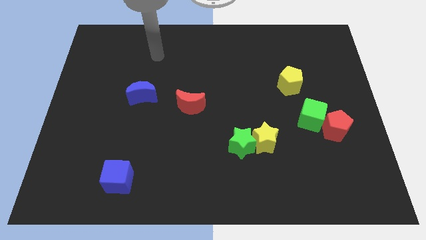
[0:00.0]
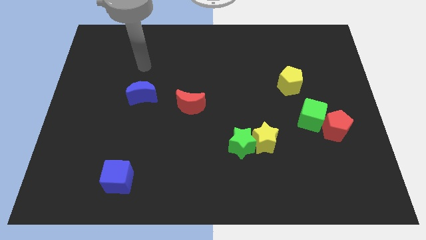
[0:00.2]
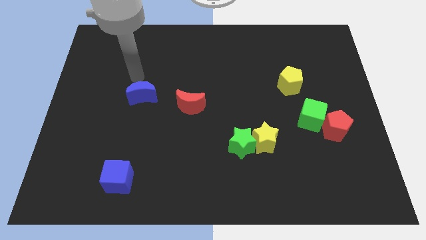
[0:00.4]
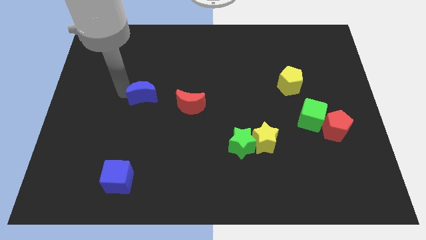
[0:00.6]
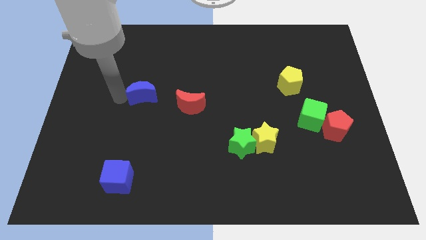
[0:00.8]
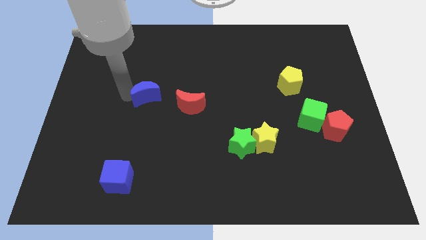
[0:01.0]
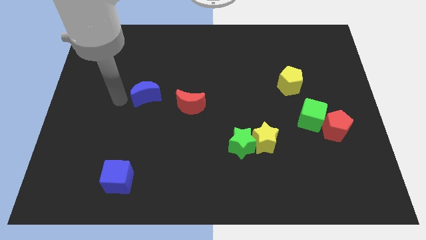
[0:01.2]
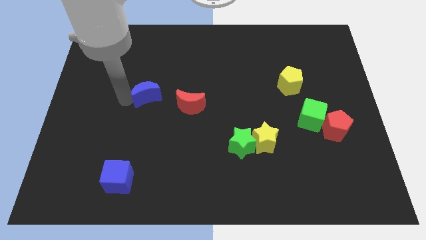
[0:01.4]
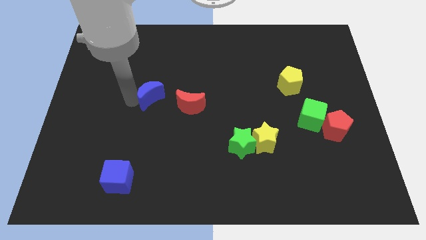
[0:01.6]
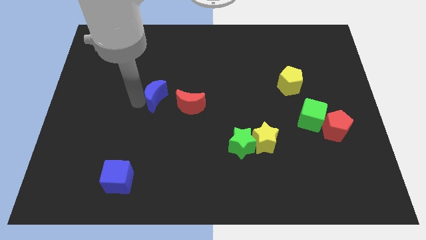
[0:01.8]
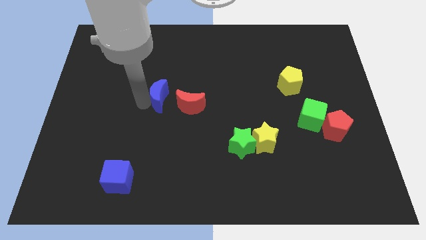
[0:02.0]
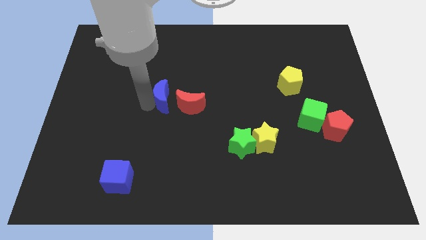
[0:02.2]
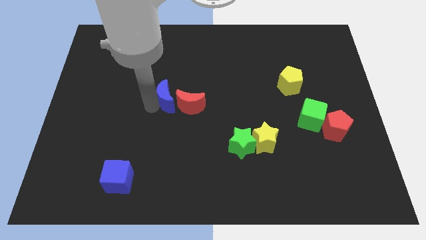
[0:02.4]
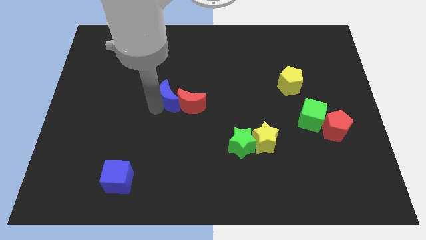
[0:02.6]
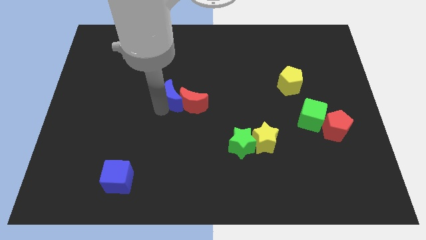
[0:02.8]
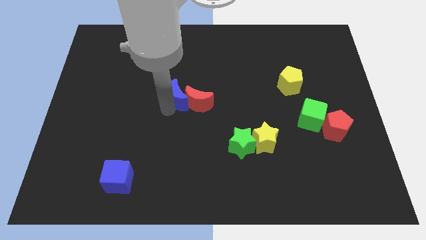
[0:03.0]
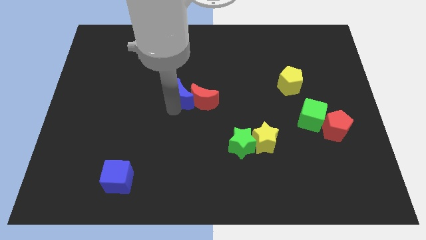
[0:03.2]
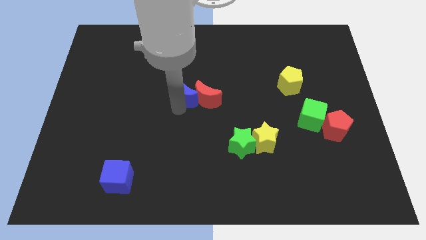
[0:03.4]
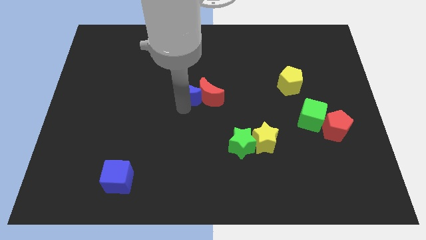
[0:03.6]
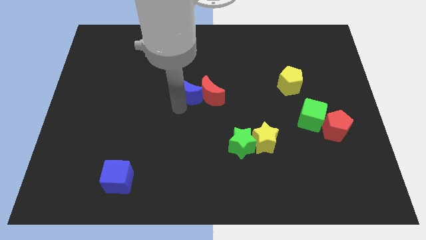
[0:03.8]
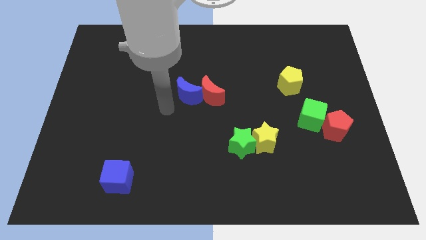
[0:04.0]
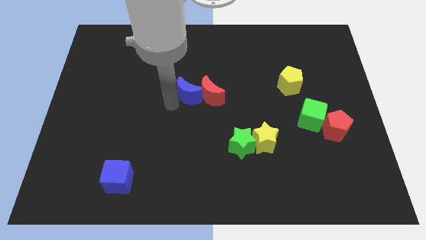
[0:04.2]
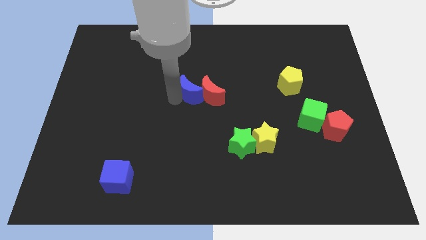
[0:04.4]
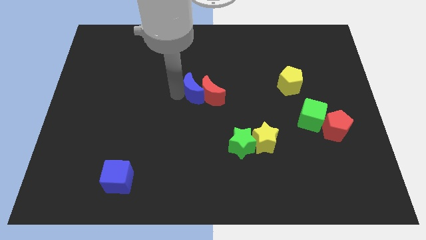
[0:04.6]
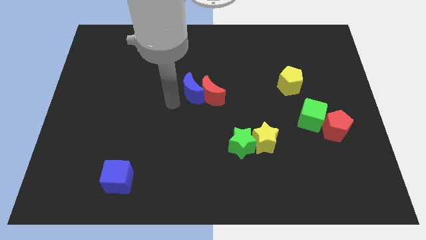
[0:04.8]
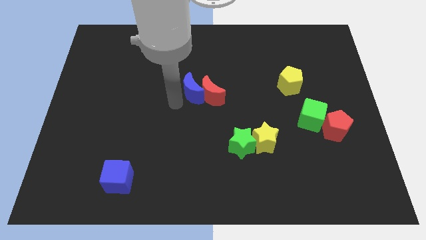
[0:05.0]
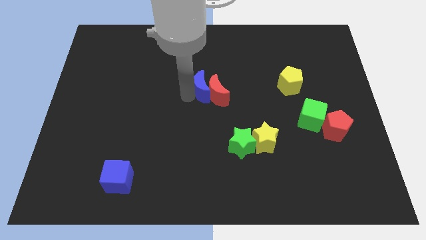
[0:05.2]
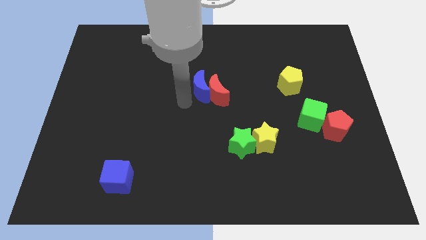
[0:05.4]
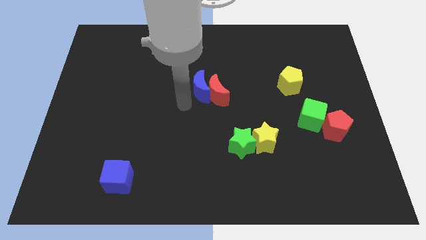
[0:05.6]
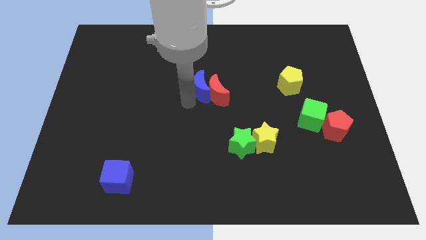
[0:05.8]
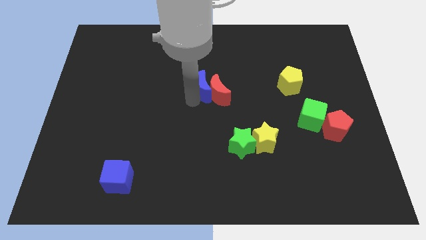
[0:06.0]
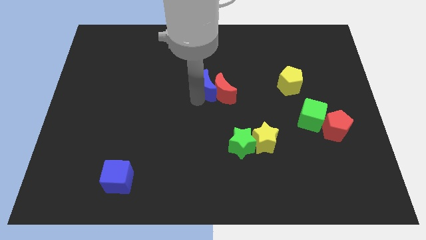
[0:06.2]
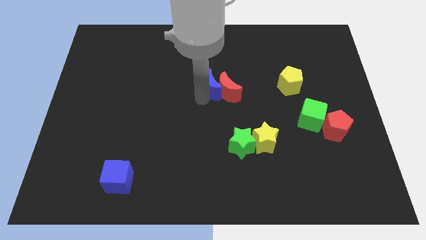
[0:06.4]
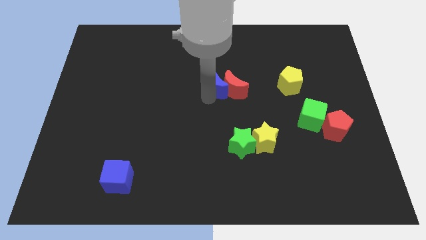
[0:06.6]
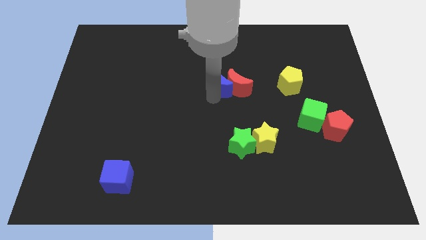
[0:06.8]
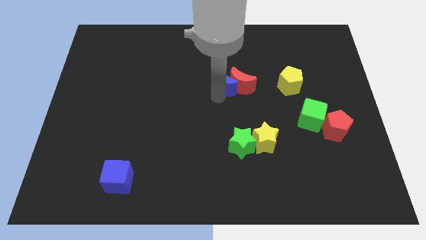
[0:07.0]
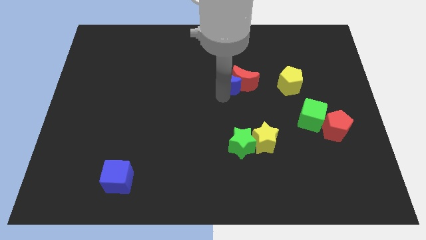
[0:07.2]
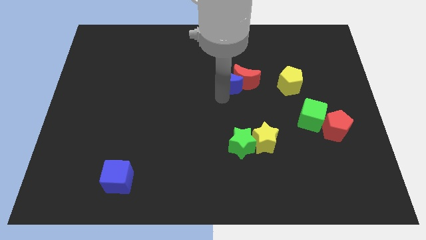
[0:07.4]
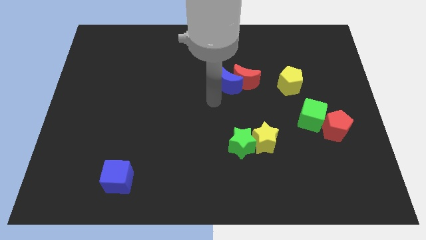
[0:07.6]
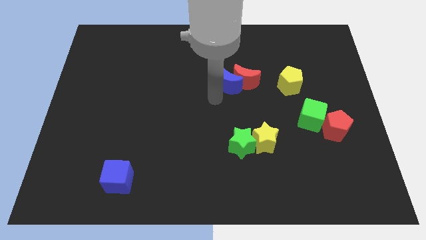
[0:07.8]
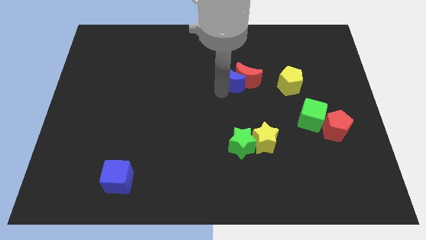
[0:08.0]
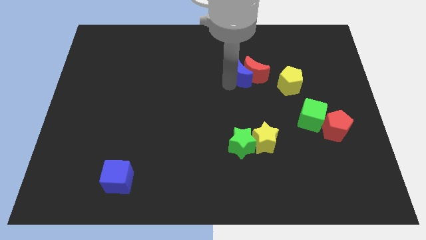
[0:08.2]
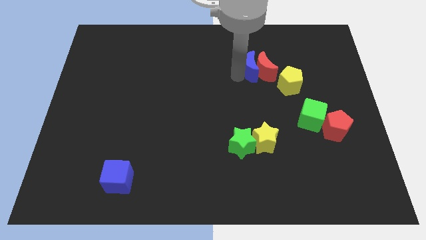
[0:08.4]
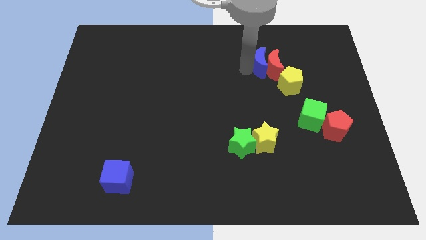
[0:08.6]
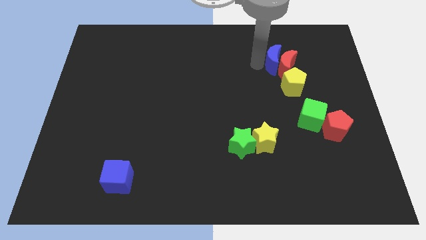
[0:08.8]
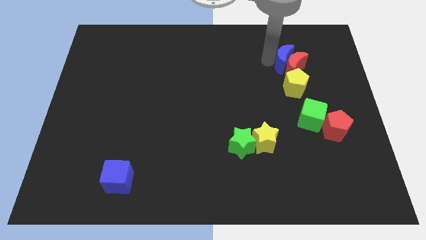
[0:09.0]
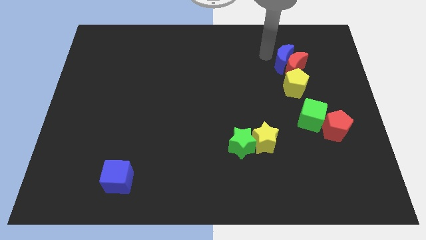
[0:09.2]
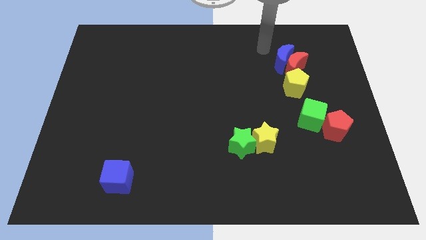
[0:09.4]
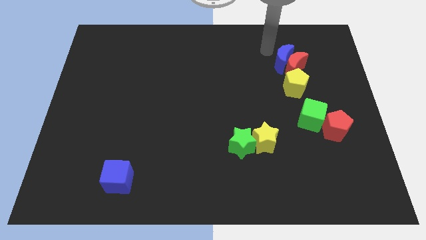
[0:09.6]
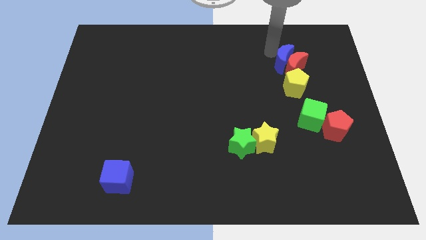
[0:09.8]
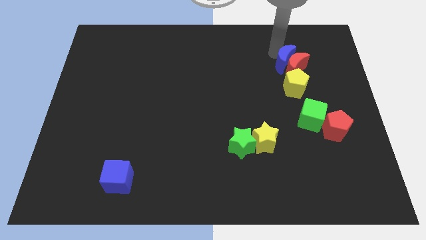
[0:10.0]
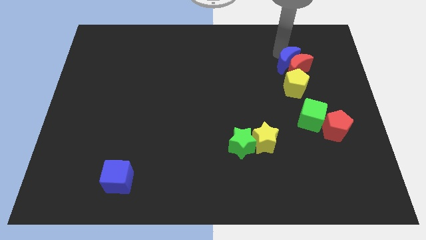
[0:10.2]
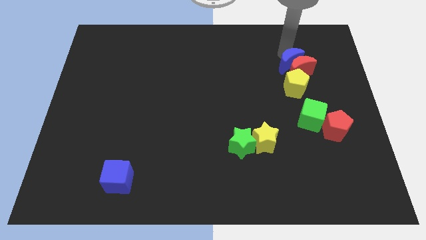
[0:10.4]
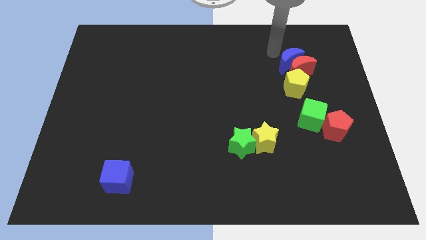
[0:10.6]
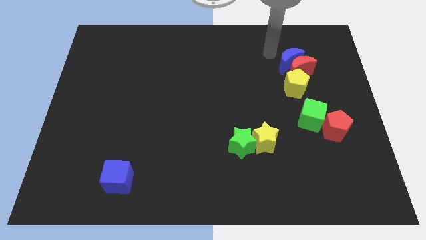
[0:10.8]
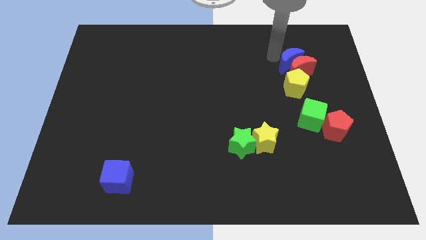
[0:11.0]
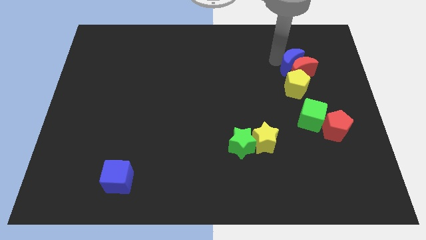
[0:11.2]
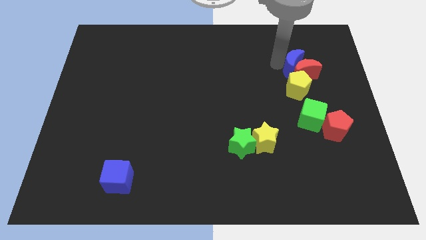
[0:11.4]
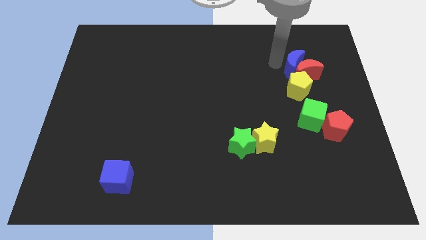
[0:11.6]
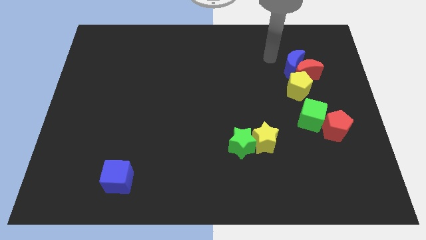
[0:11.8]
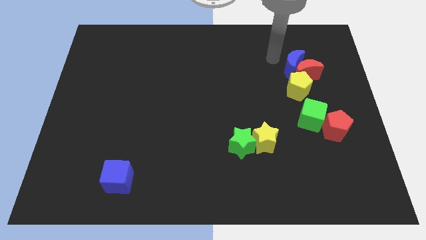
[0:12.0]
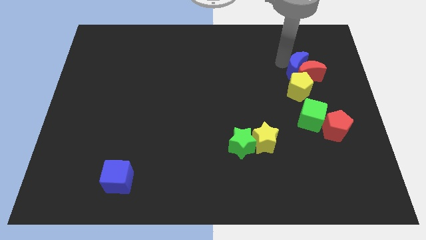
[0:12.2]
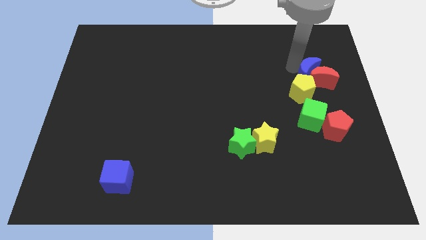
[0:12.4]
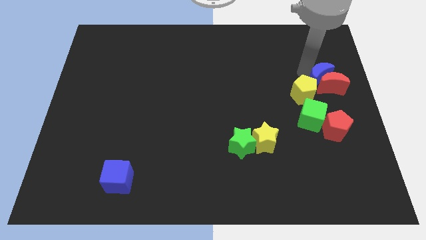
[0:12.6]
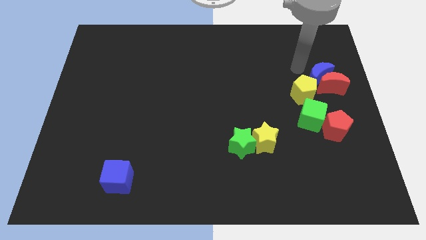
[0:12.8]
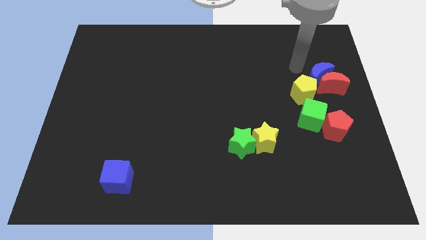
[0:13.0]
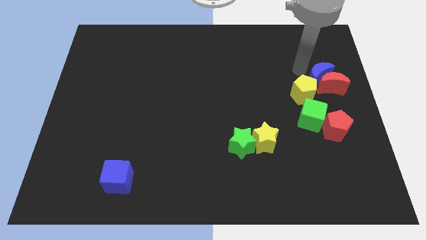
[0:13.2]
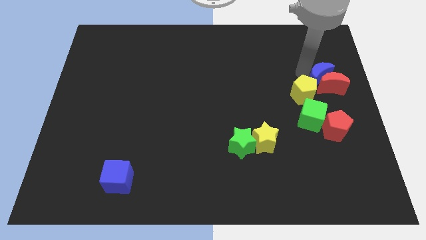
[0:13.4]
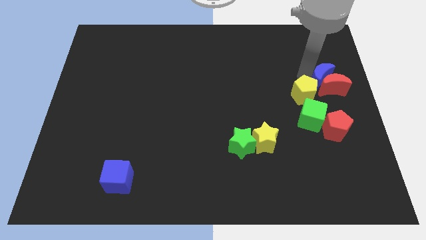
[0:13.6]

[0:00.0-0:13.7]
slide the blue moon to the center right
